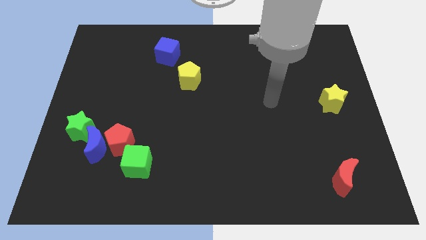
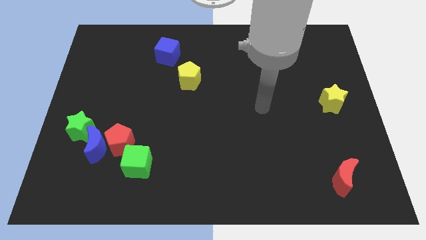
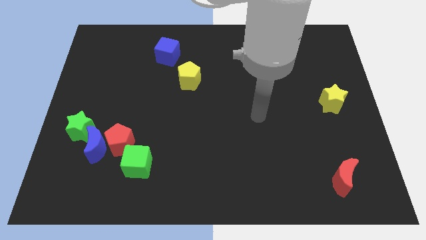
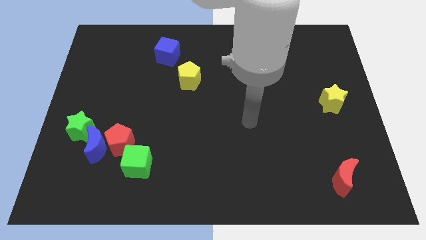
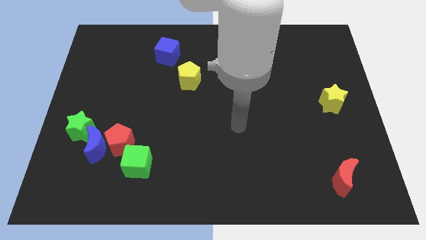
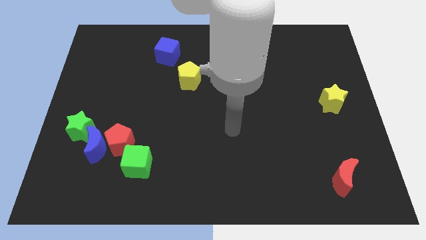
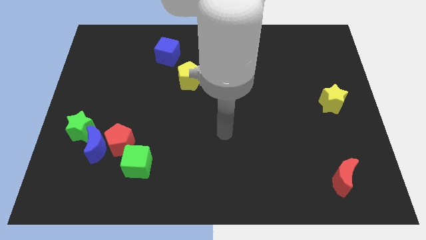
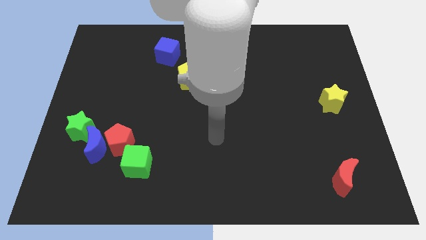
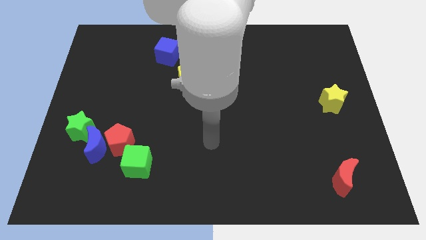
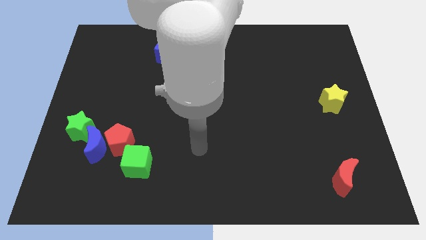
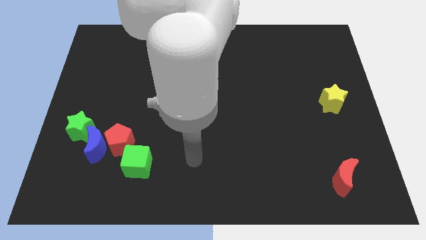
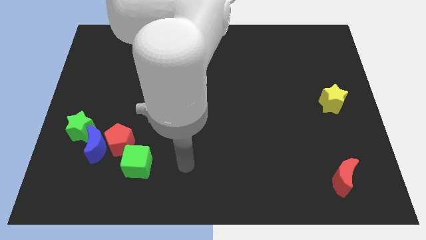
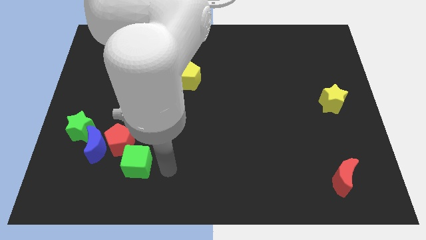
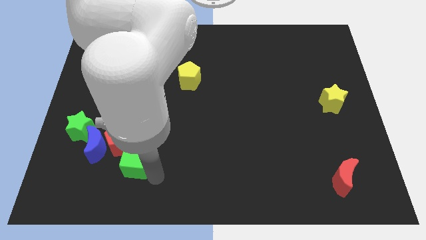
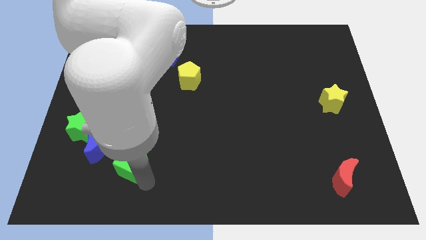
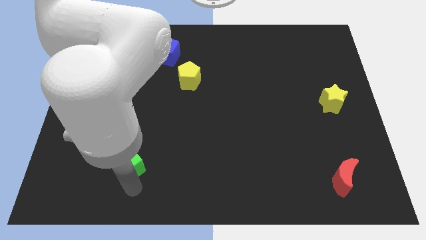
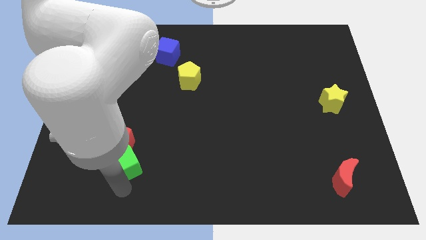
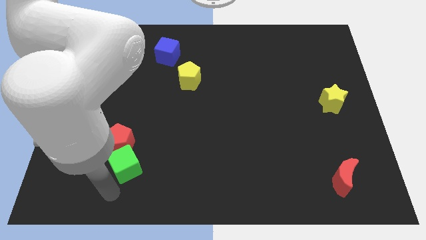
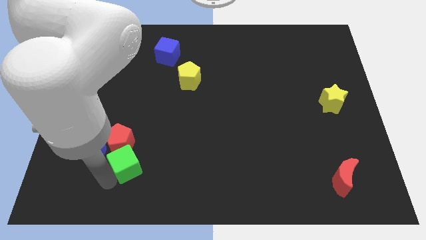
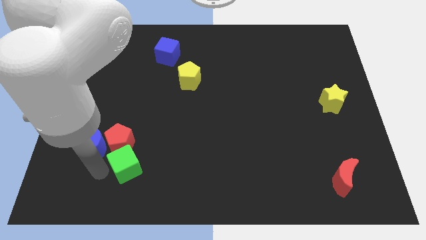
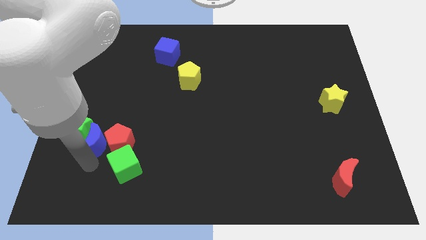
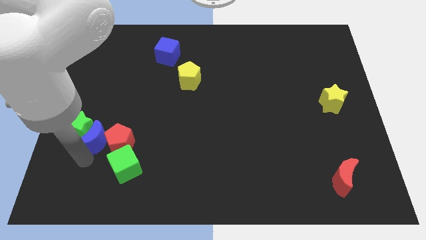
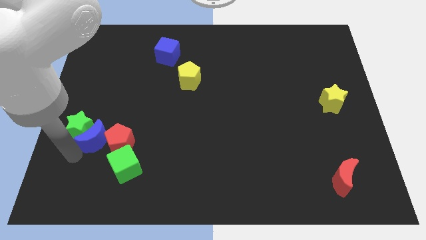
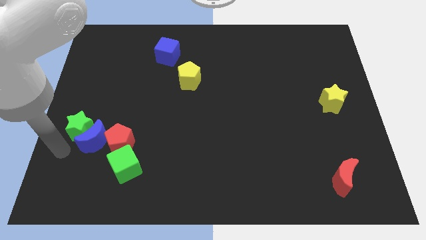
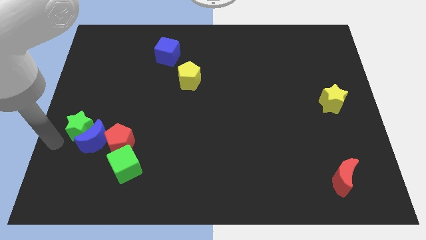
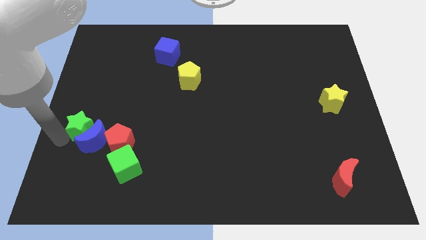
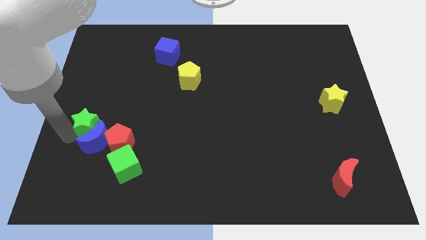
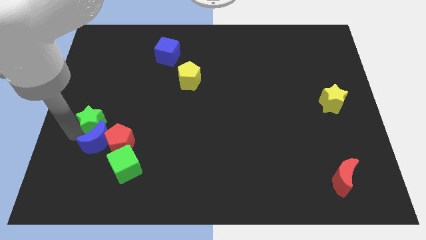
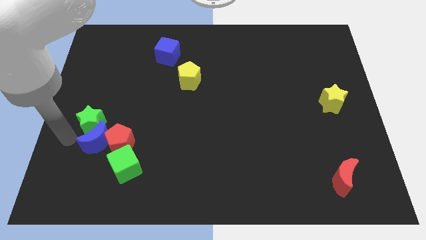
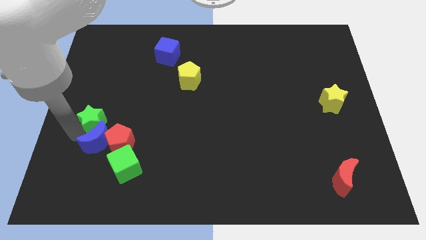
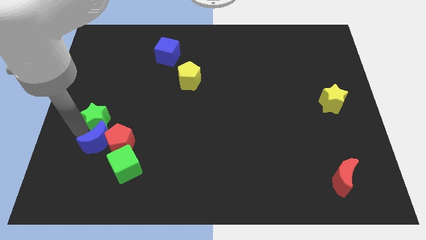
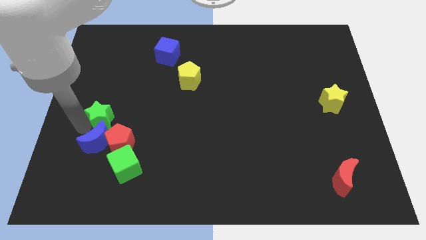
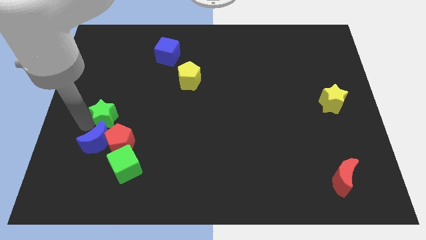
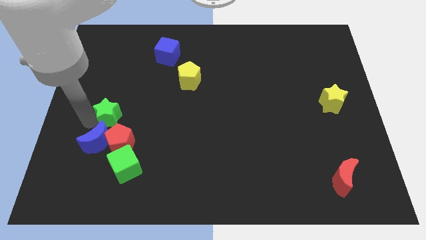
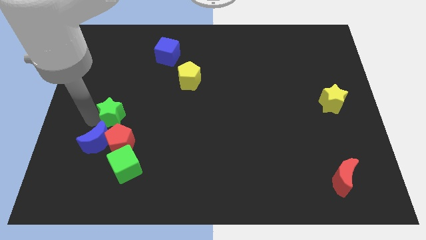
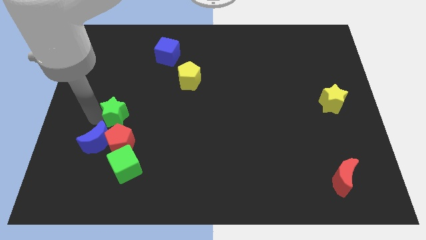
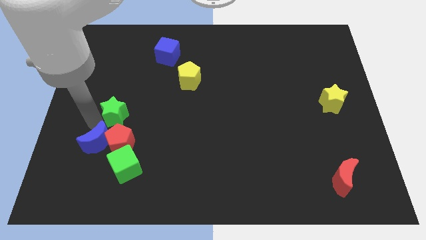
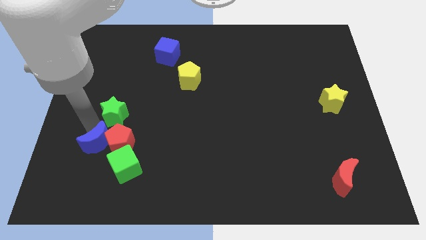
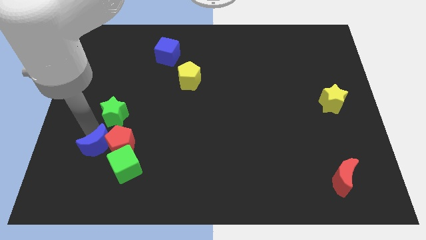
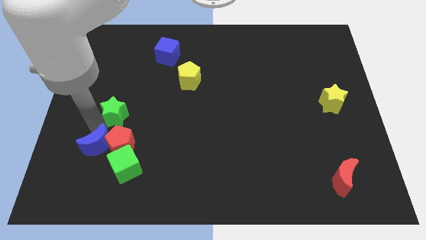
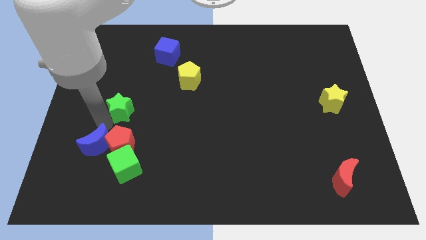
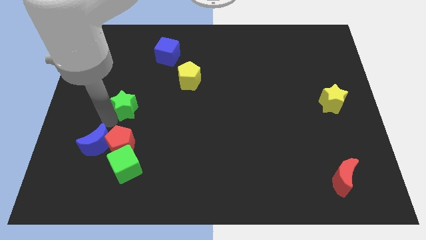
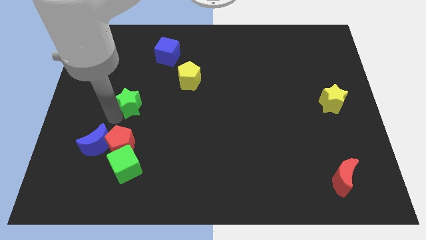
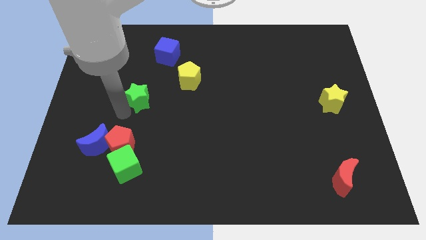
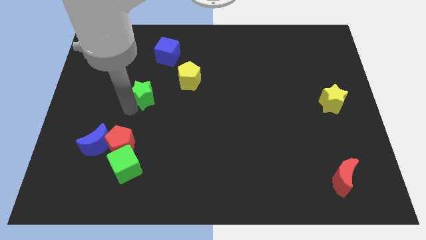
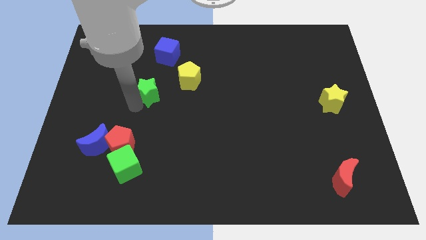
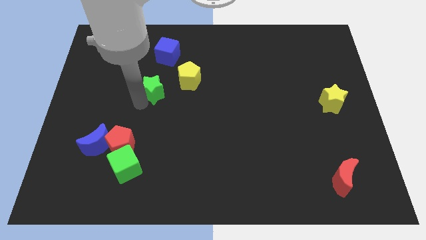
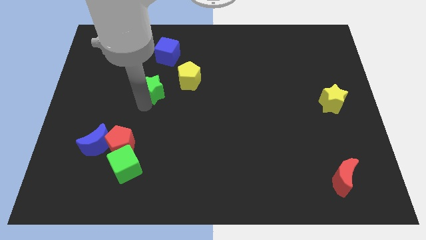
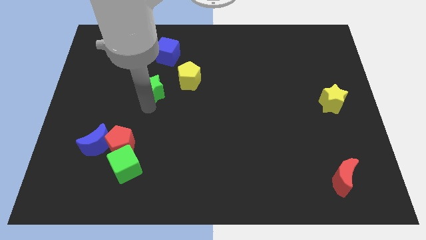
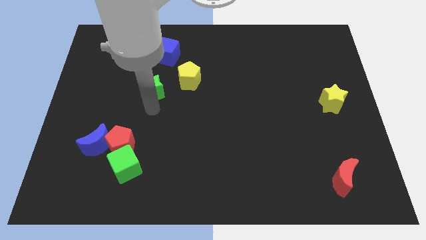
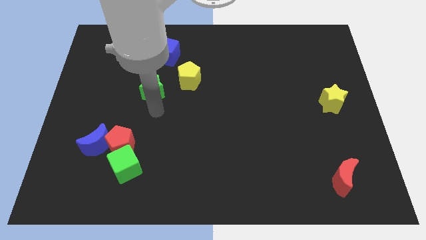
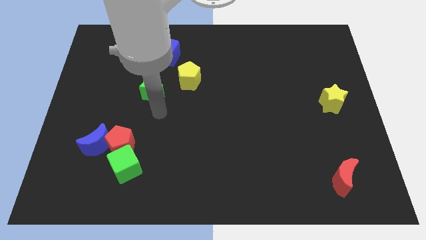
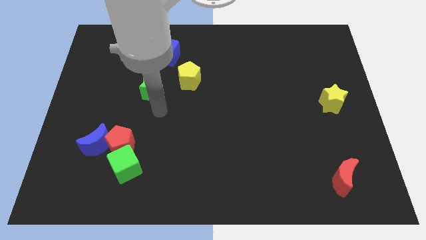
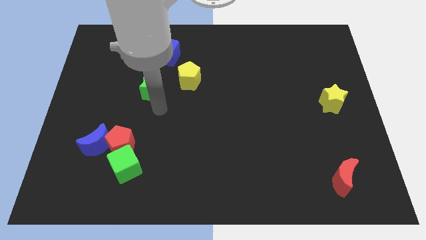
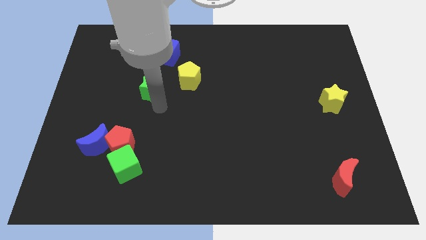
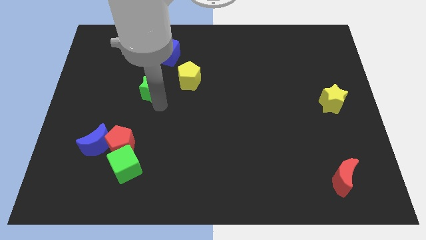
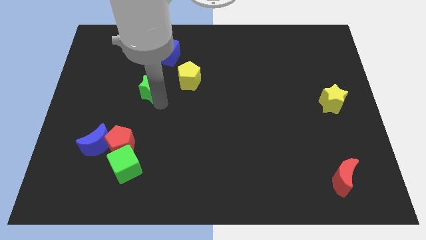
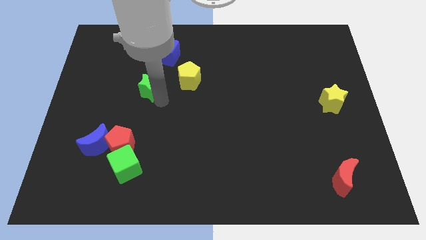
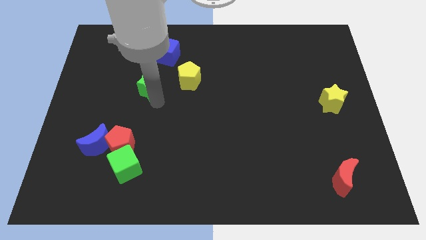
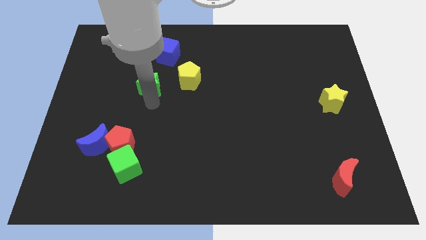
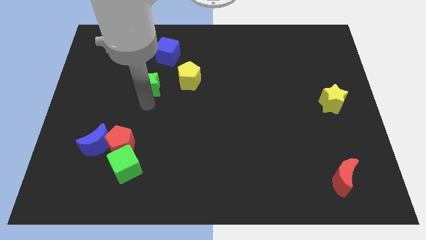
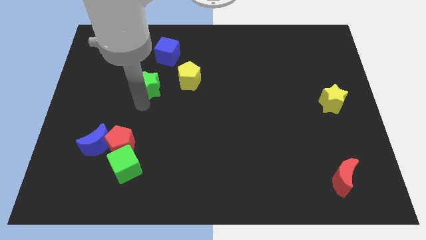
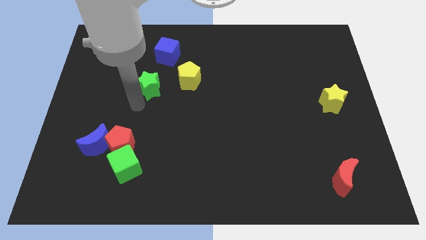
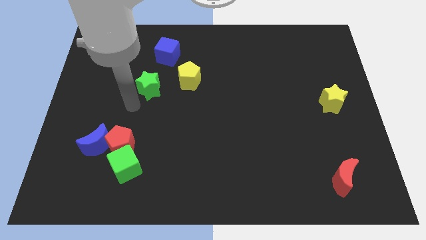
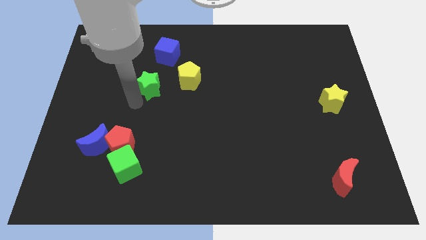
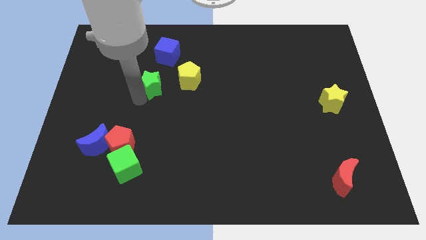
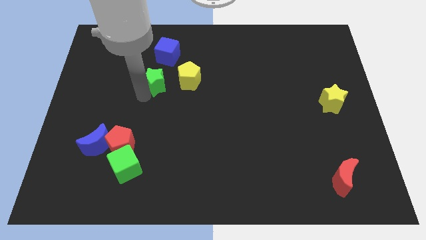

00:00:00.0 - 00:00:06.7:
push the green star up and then to the right

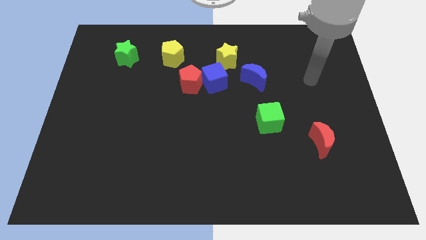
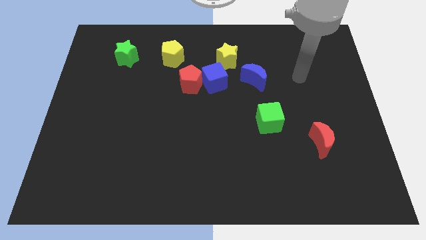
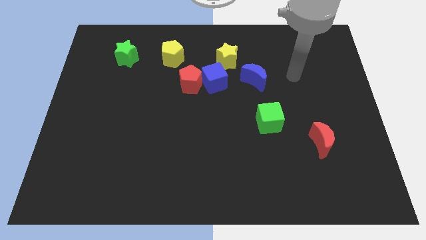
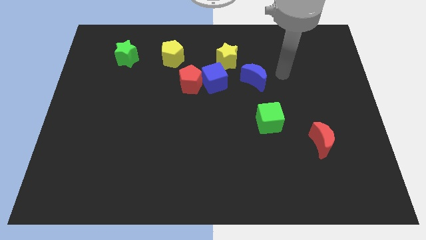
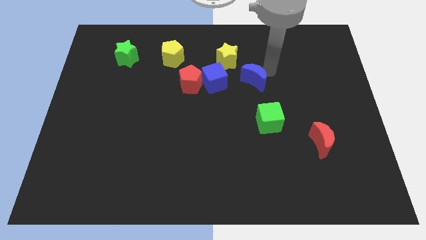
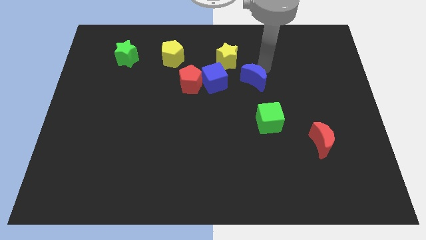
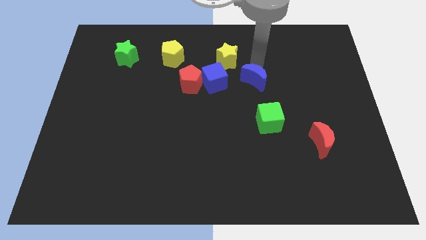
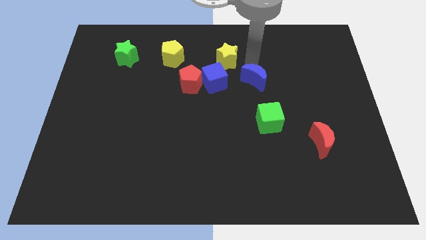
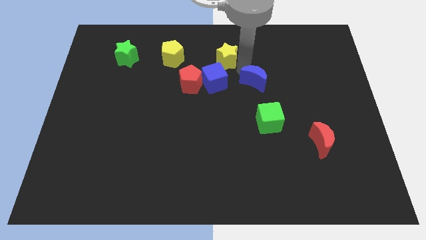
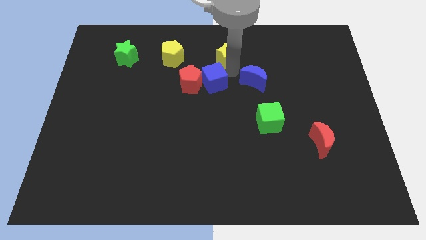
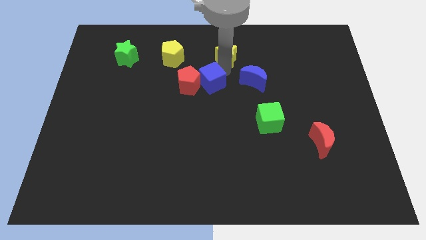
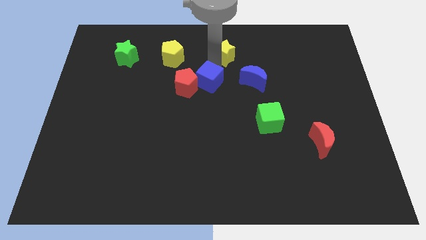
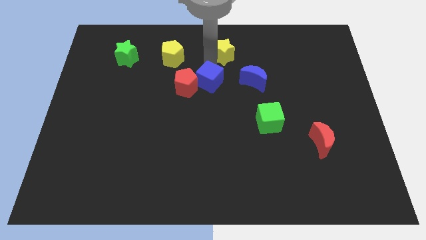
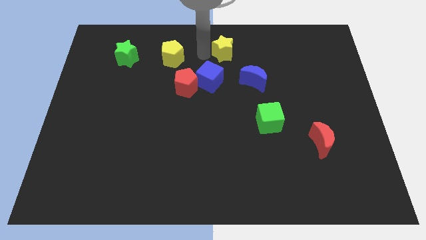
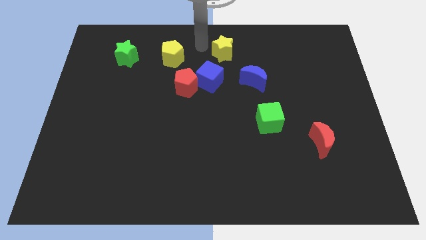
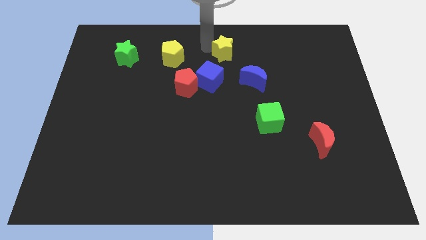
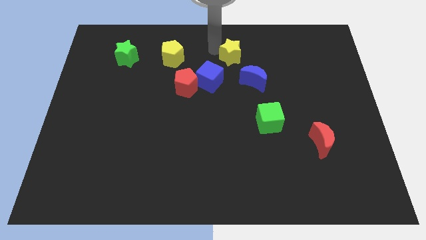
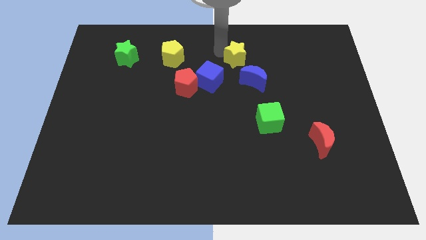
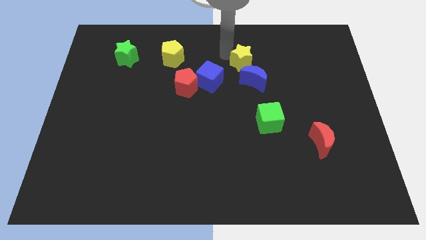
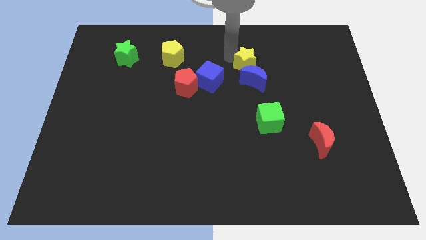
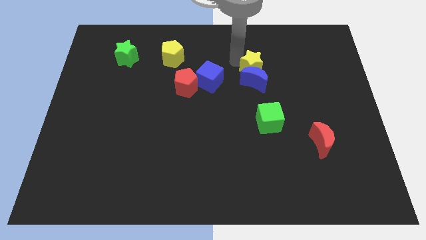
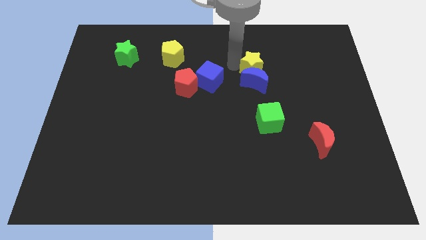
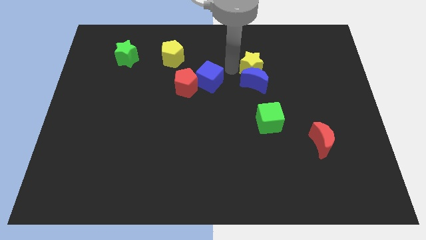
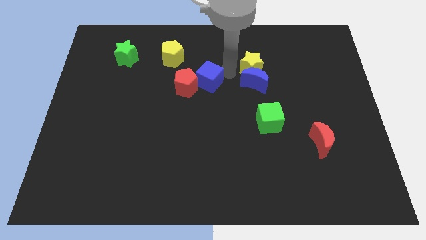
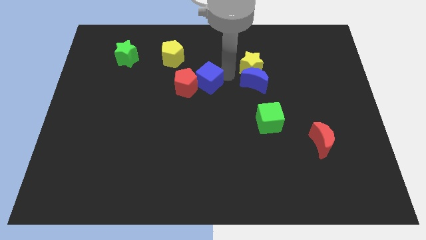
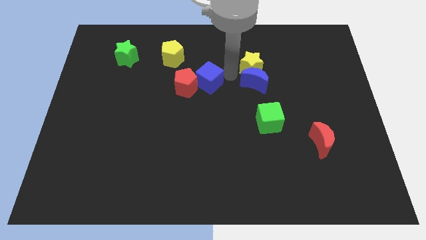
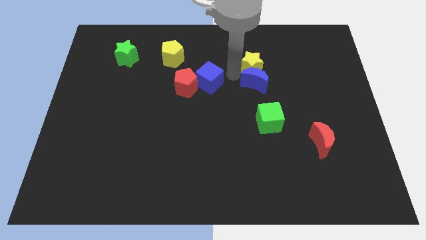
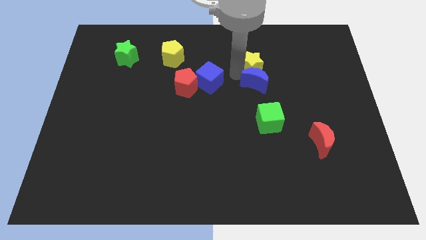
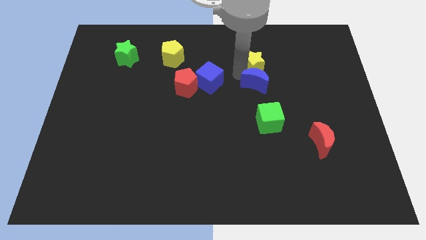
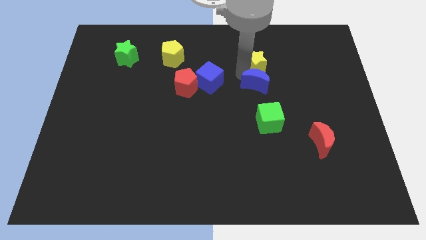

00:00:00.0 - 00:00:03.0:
push the yellow star to the right slightly
